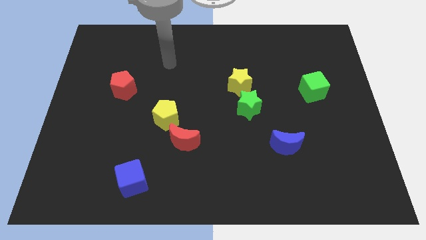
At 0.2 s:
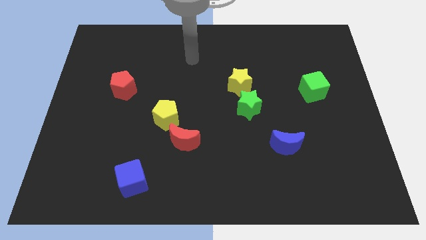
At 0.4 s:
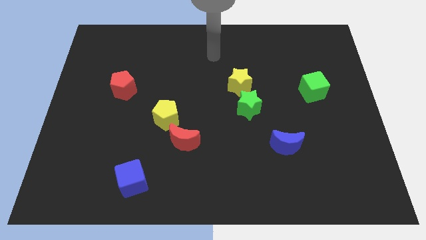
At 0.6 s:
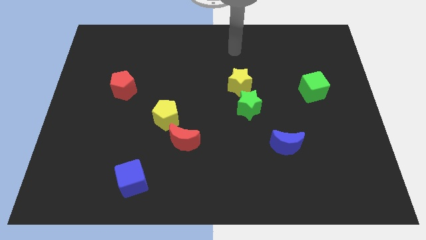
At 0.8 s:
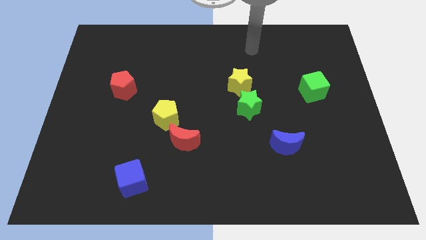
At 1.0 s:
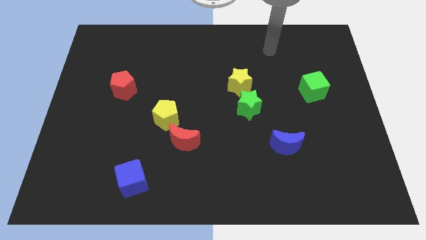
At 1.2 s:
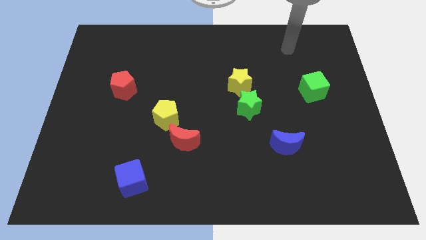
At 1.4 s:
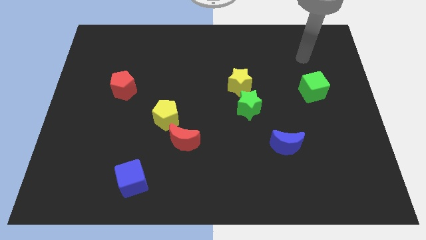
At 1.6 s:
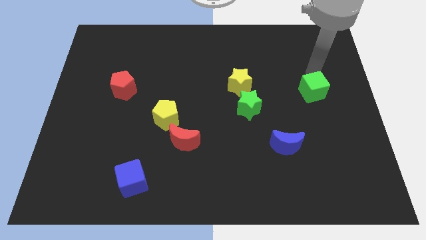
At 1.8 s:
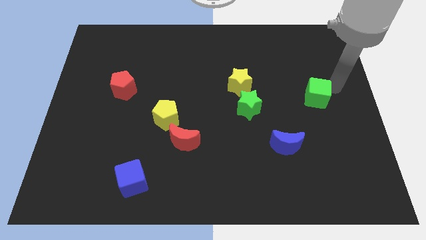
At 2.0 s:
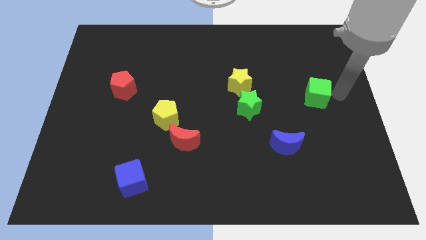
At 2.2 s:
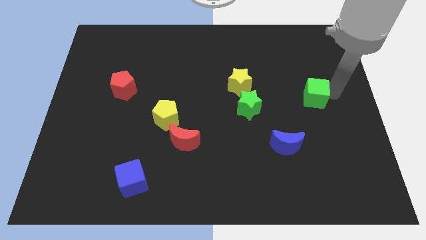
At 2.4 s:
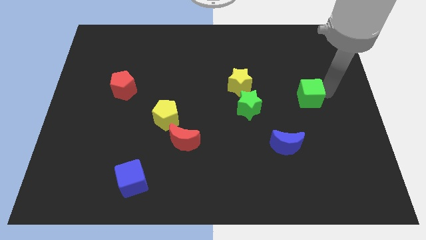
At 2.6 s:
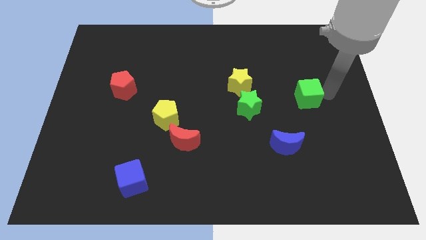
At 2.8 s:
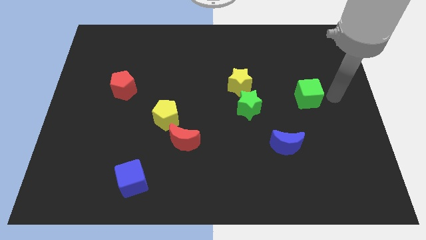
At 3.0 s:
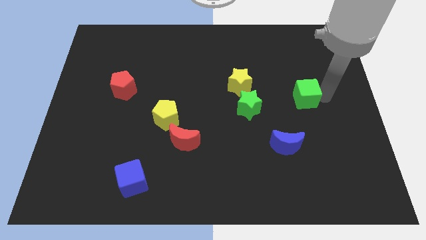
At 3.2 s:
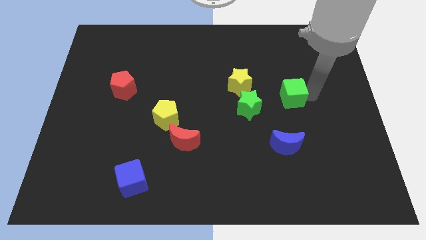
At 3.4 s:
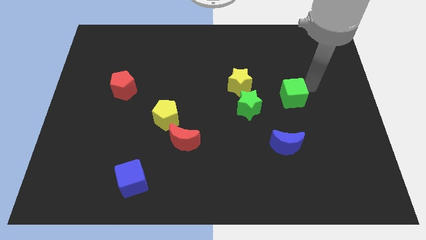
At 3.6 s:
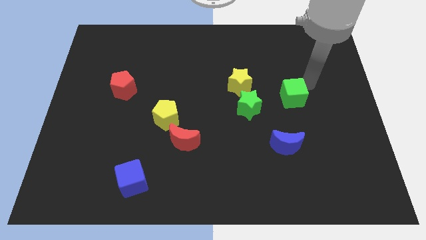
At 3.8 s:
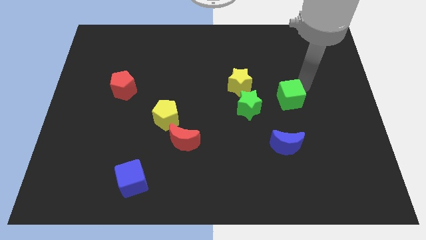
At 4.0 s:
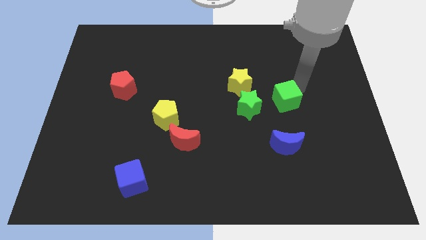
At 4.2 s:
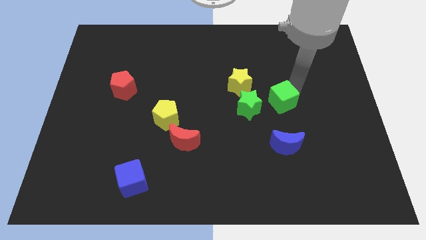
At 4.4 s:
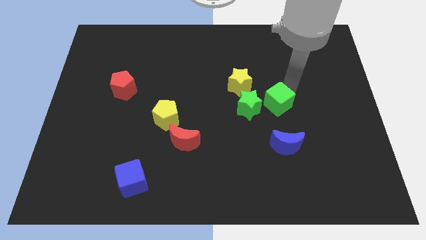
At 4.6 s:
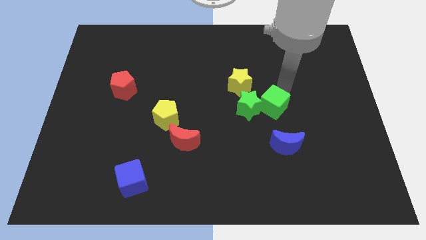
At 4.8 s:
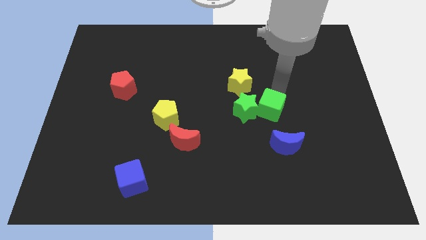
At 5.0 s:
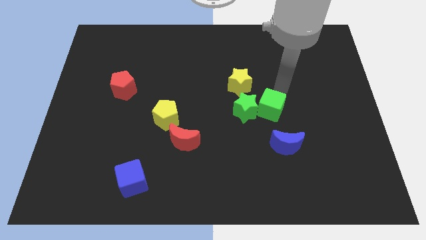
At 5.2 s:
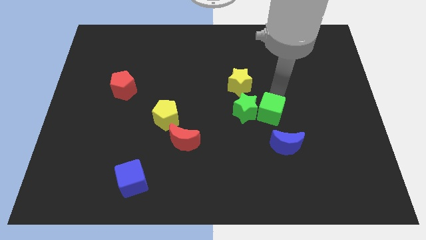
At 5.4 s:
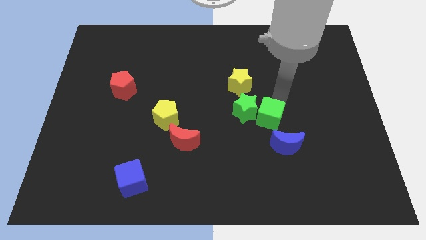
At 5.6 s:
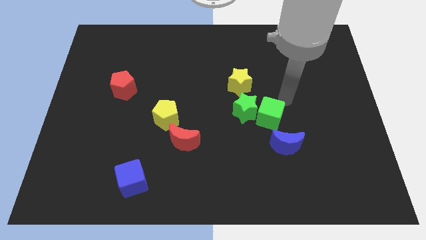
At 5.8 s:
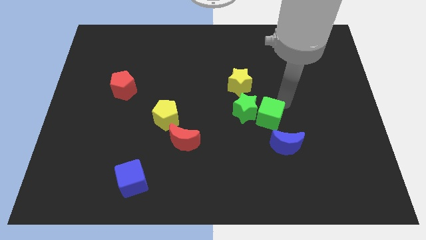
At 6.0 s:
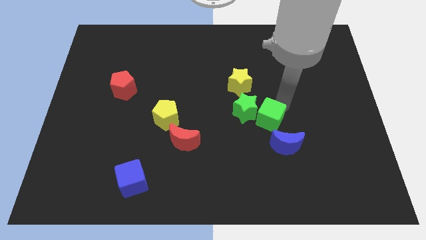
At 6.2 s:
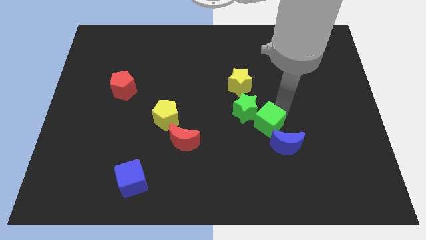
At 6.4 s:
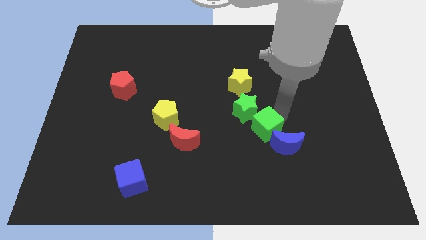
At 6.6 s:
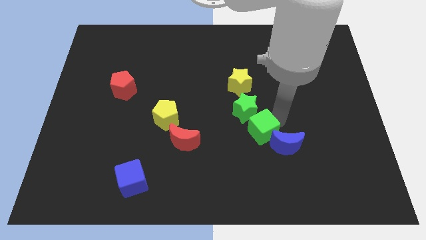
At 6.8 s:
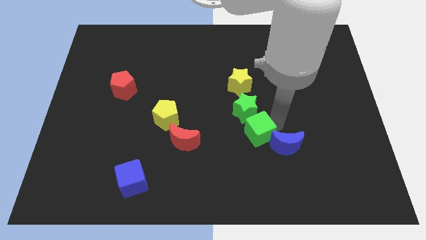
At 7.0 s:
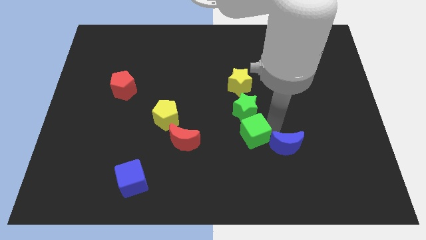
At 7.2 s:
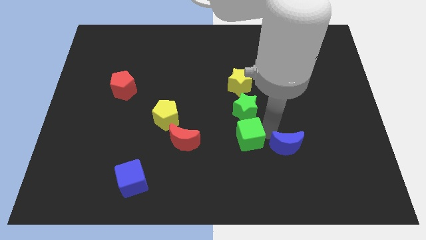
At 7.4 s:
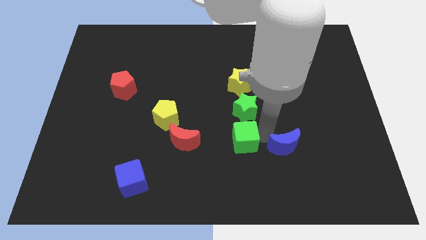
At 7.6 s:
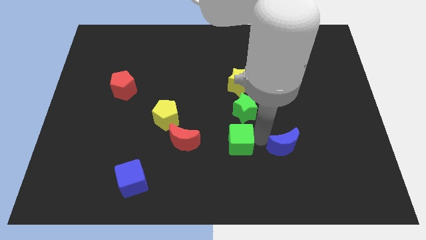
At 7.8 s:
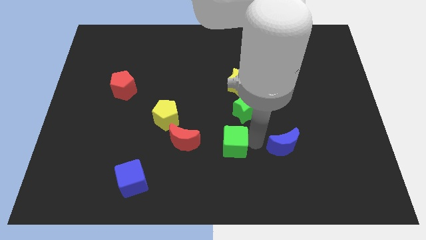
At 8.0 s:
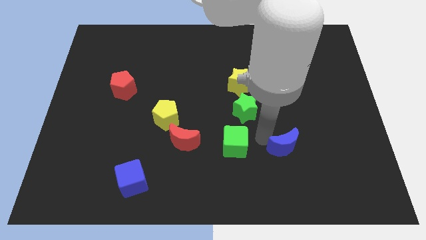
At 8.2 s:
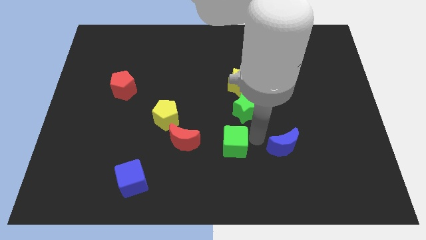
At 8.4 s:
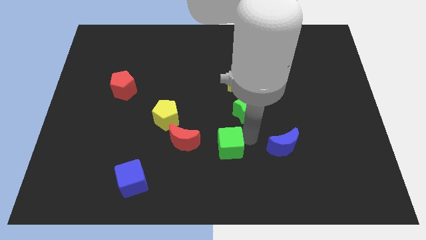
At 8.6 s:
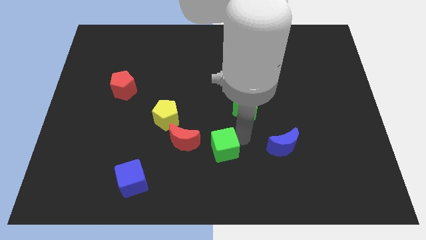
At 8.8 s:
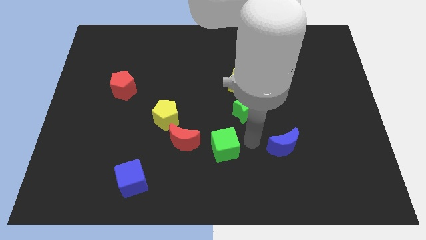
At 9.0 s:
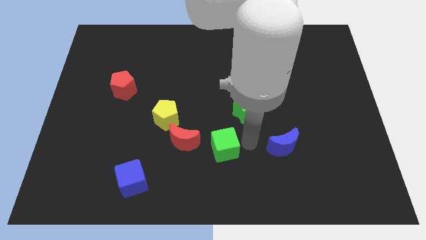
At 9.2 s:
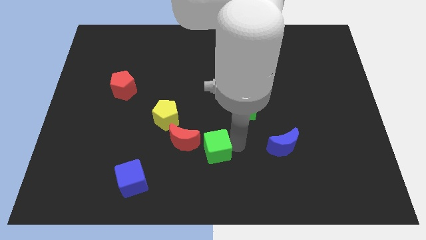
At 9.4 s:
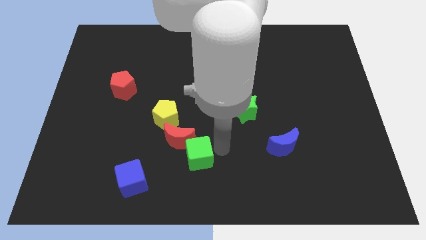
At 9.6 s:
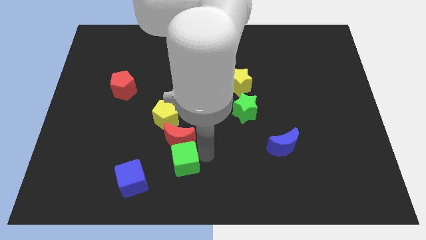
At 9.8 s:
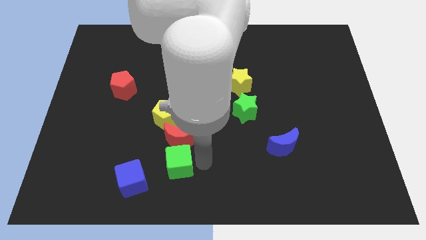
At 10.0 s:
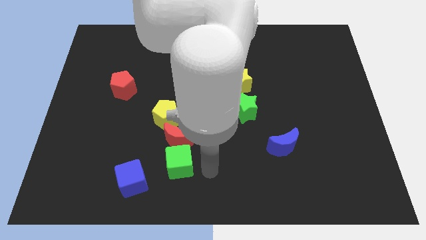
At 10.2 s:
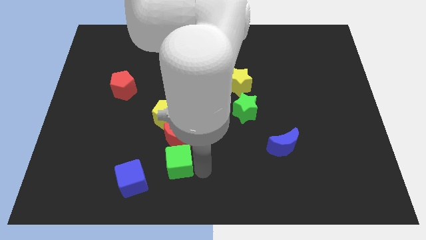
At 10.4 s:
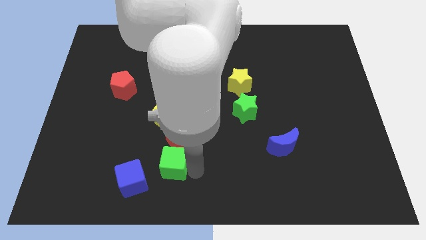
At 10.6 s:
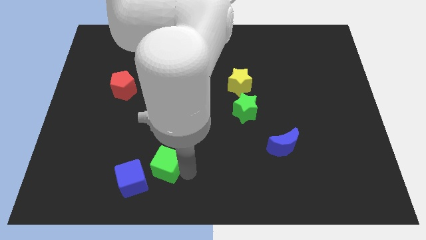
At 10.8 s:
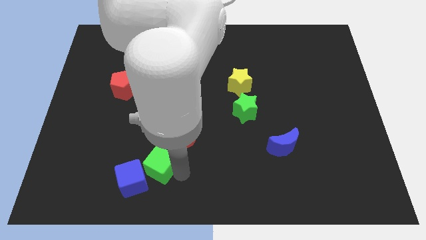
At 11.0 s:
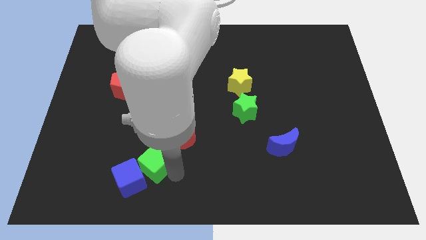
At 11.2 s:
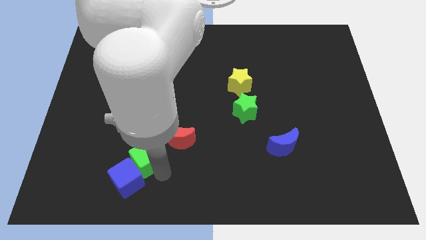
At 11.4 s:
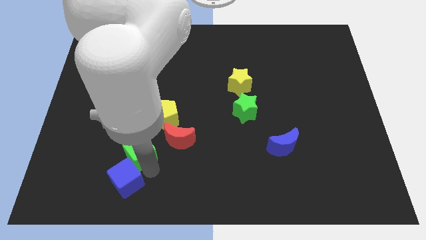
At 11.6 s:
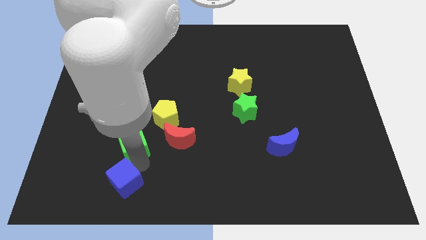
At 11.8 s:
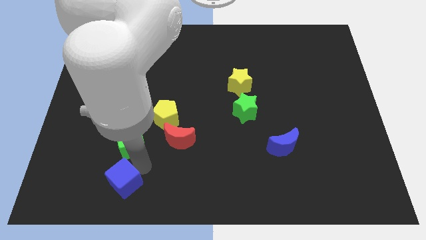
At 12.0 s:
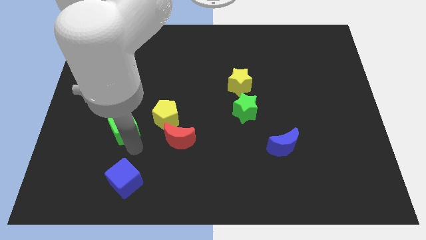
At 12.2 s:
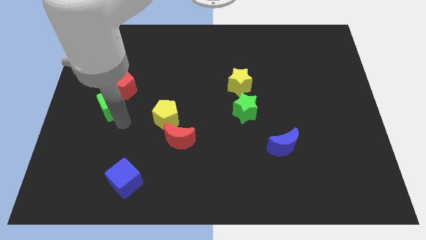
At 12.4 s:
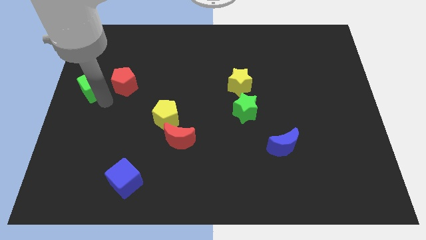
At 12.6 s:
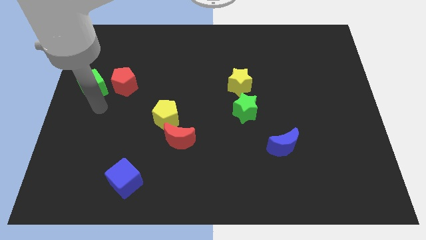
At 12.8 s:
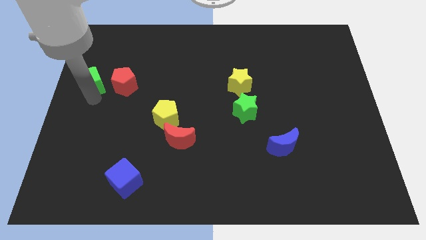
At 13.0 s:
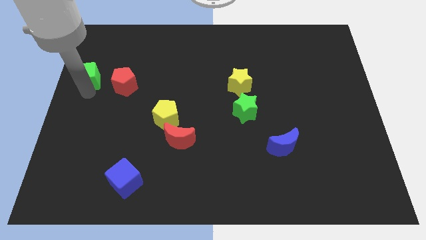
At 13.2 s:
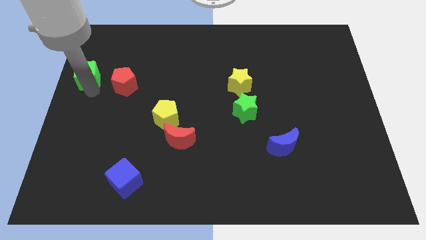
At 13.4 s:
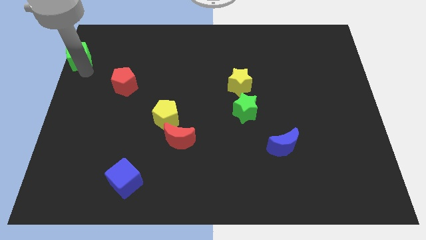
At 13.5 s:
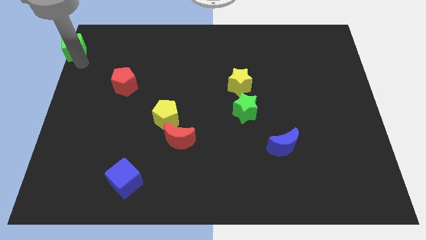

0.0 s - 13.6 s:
push the green cube to the top left of the board
